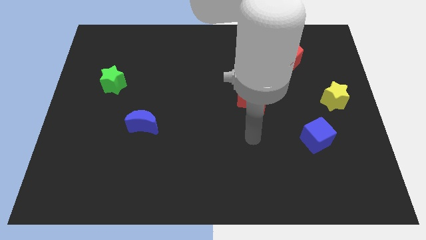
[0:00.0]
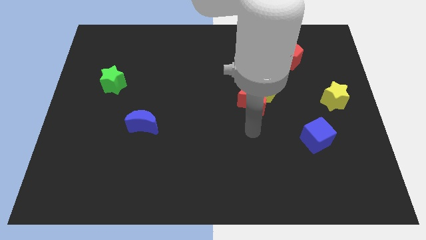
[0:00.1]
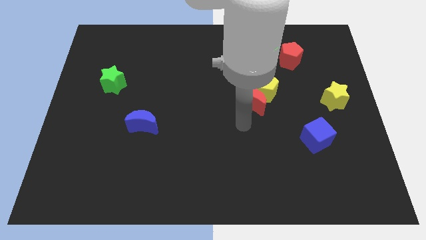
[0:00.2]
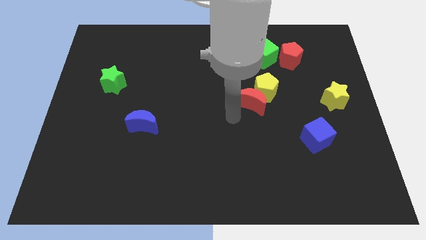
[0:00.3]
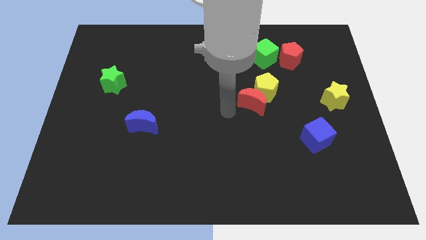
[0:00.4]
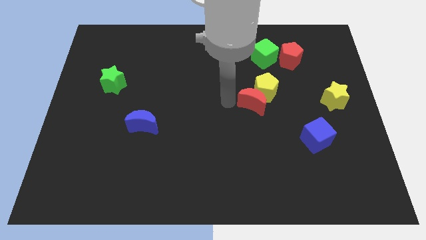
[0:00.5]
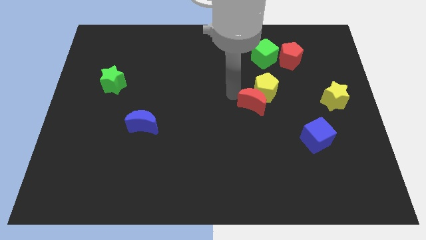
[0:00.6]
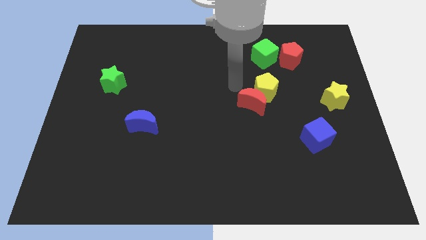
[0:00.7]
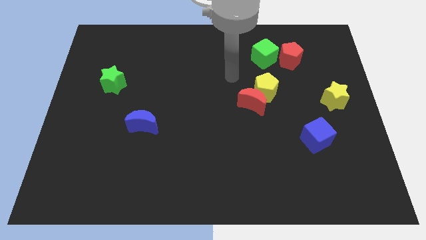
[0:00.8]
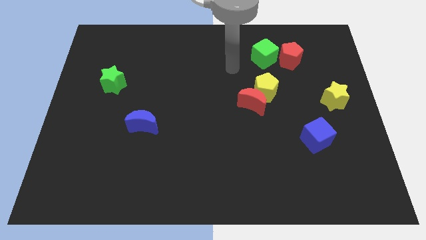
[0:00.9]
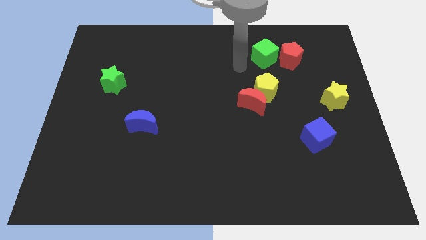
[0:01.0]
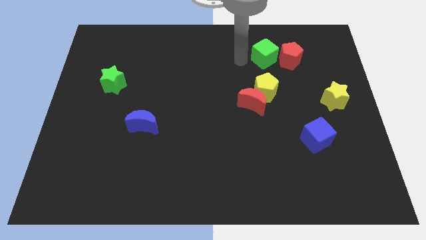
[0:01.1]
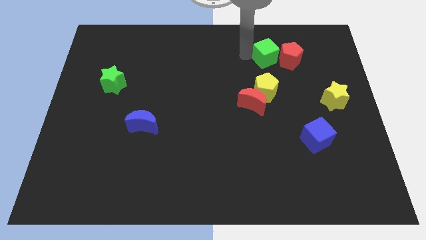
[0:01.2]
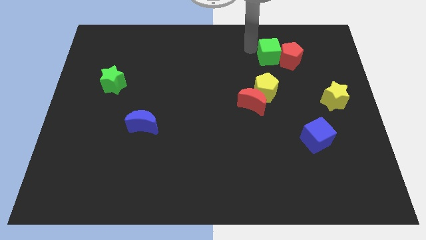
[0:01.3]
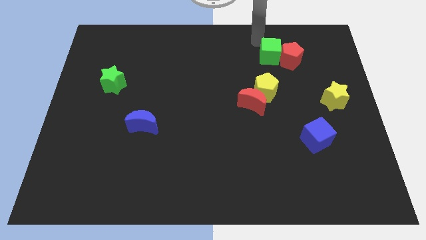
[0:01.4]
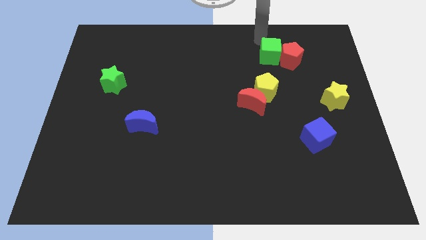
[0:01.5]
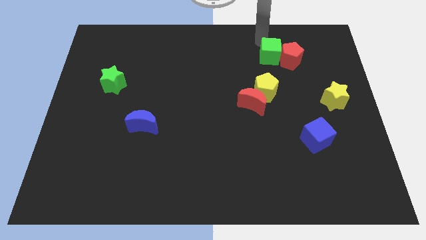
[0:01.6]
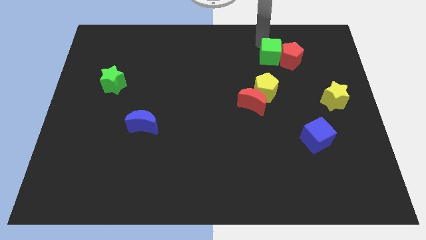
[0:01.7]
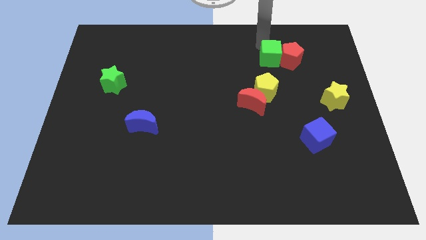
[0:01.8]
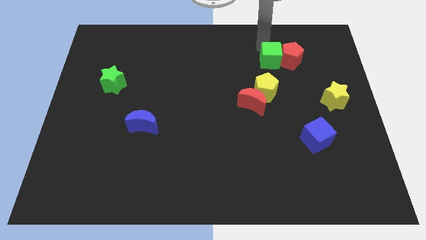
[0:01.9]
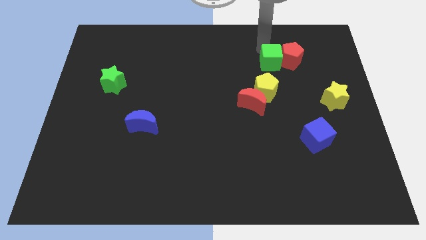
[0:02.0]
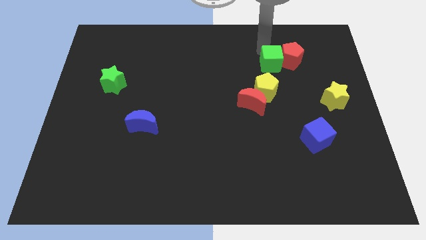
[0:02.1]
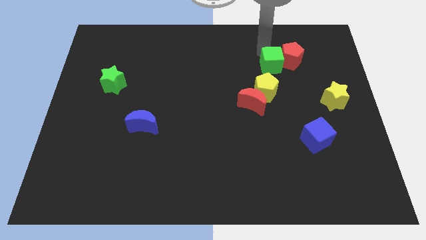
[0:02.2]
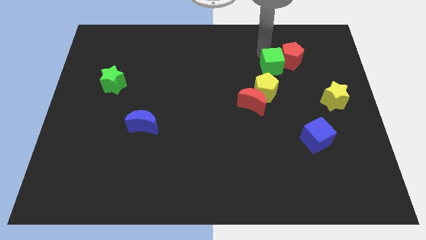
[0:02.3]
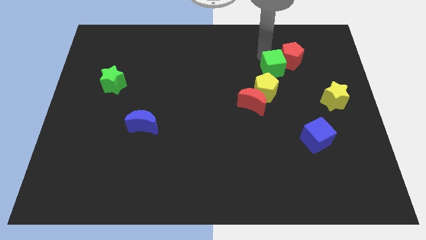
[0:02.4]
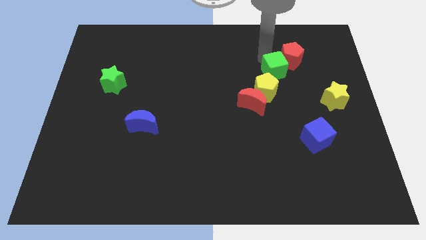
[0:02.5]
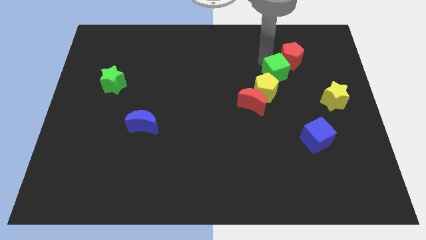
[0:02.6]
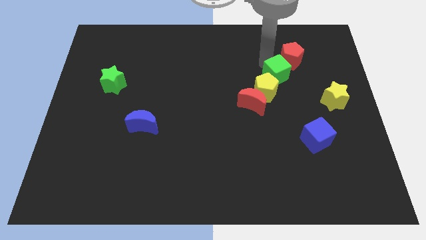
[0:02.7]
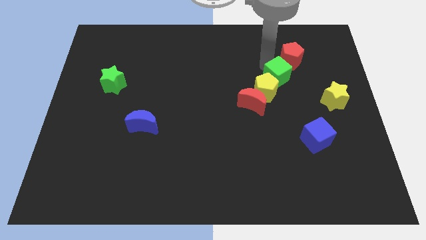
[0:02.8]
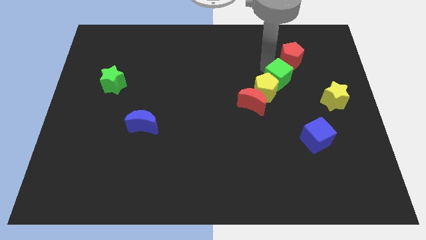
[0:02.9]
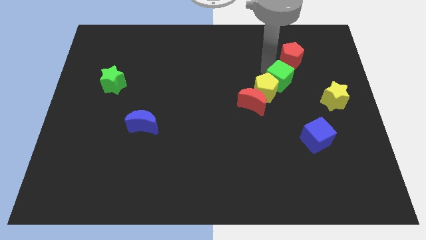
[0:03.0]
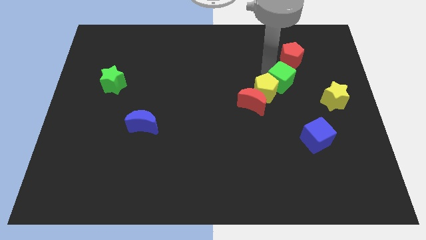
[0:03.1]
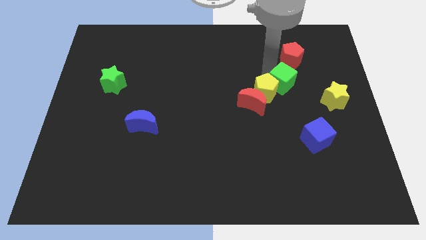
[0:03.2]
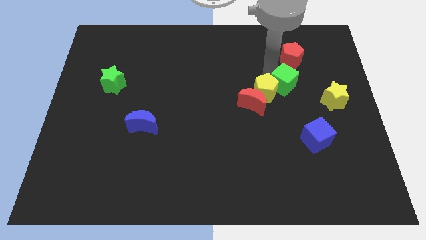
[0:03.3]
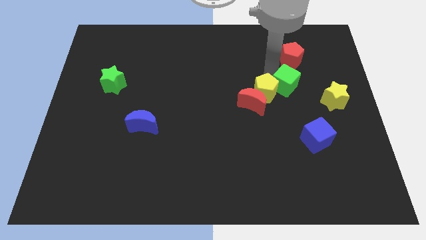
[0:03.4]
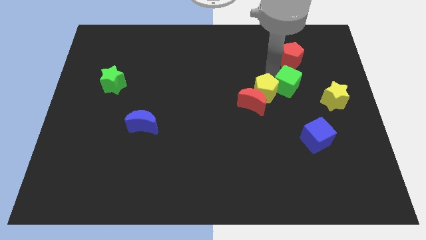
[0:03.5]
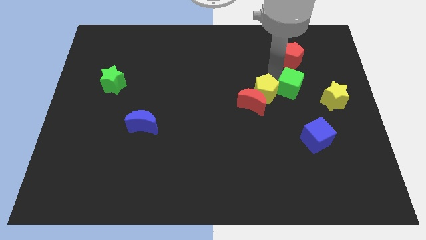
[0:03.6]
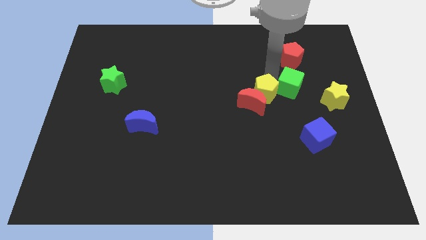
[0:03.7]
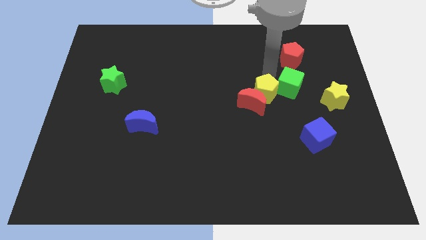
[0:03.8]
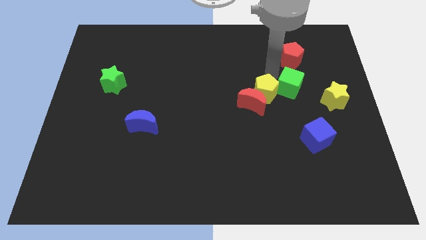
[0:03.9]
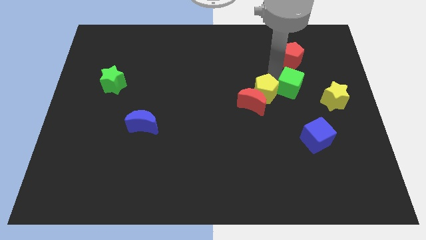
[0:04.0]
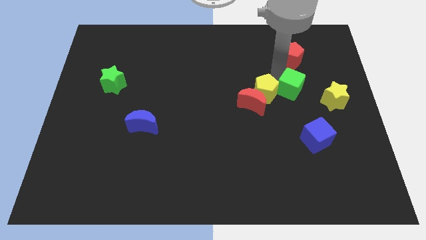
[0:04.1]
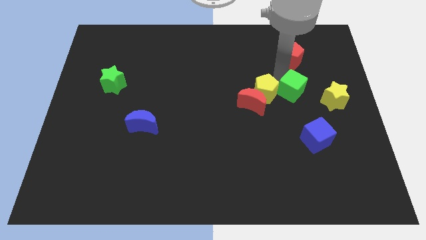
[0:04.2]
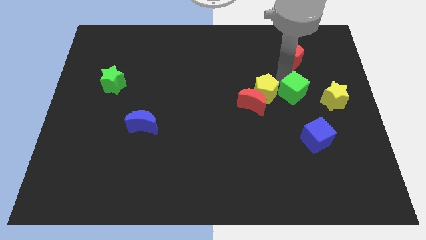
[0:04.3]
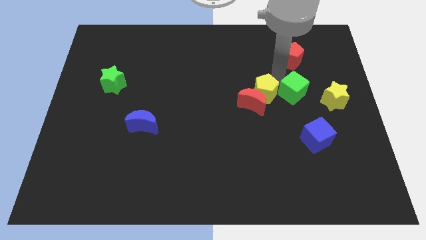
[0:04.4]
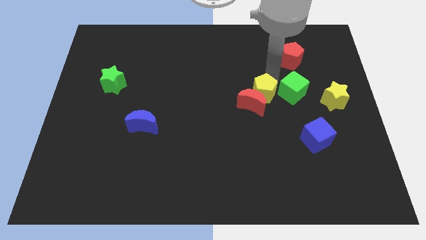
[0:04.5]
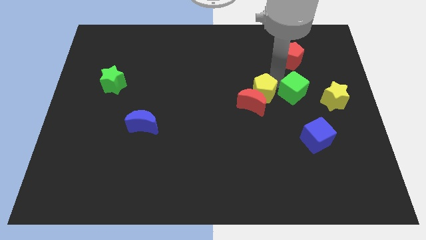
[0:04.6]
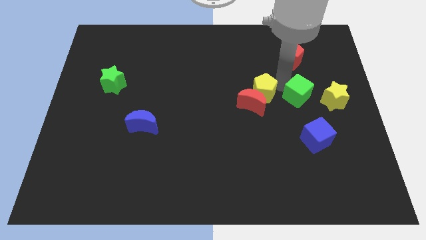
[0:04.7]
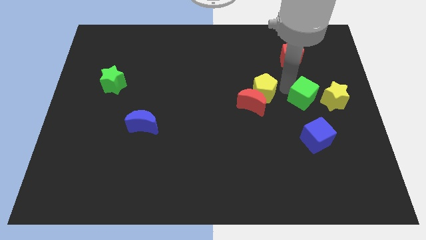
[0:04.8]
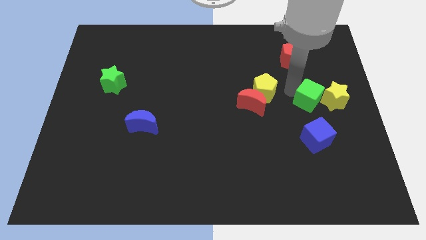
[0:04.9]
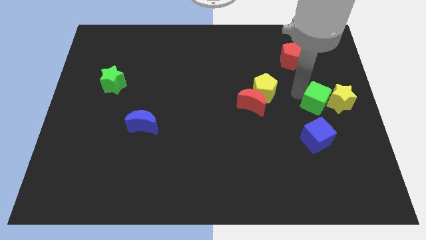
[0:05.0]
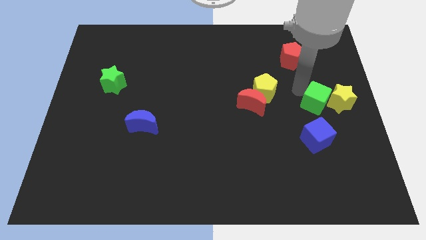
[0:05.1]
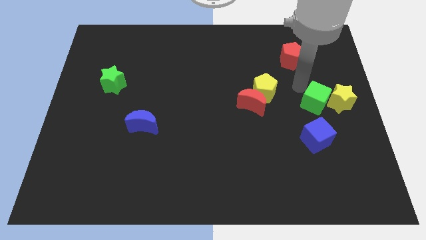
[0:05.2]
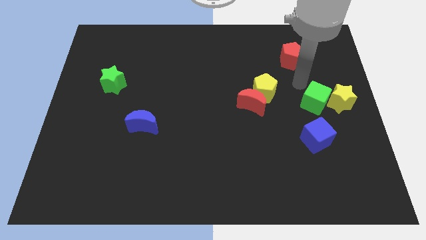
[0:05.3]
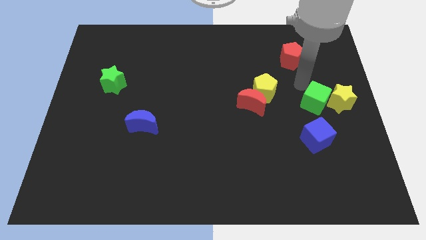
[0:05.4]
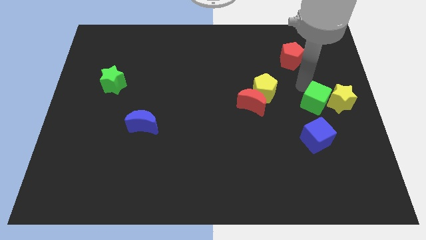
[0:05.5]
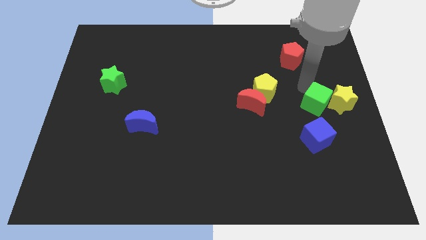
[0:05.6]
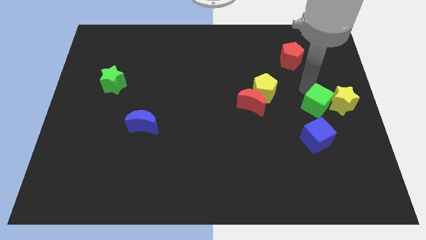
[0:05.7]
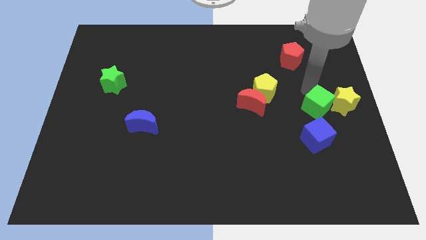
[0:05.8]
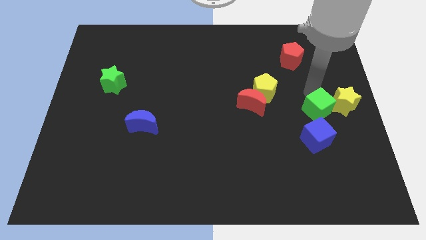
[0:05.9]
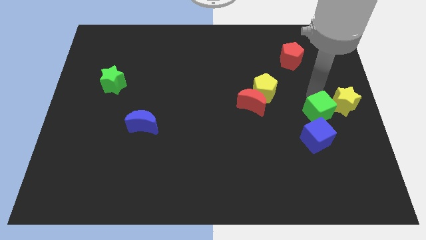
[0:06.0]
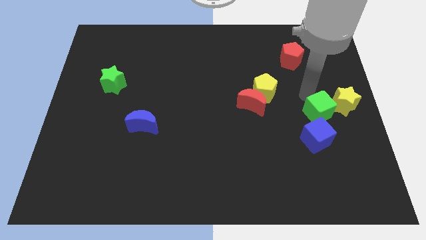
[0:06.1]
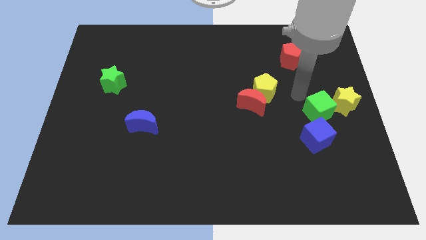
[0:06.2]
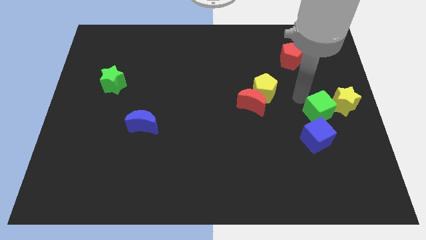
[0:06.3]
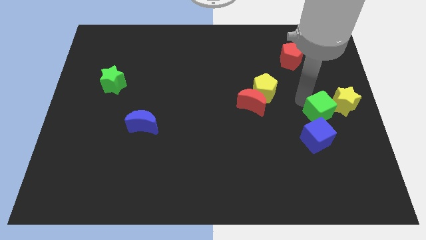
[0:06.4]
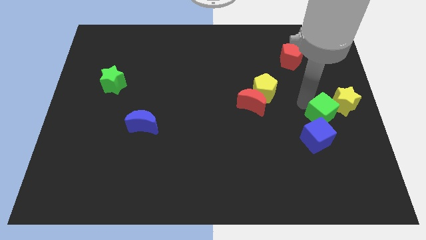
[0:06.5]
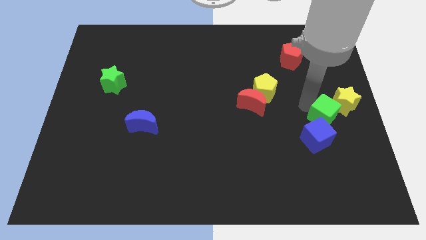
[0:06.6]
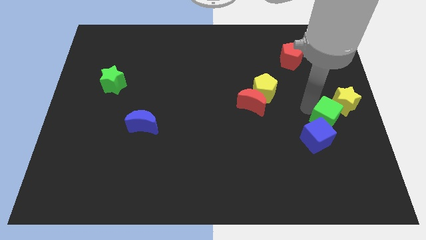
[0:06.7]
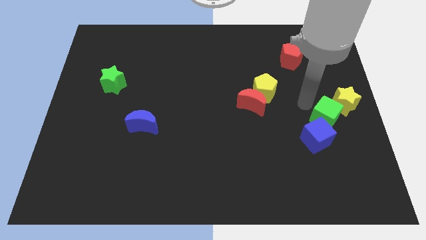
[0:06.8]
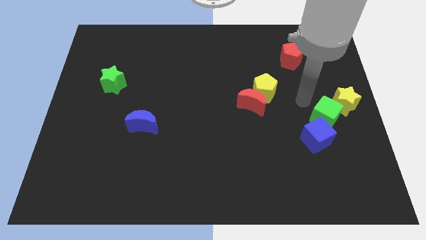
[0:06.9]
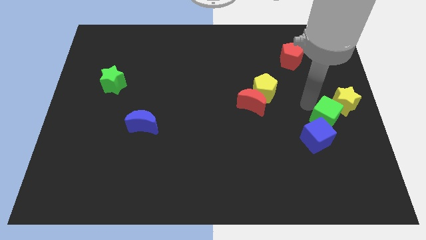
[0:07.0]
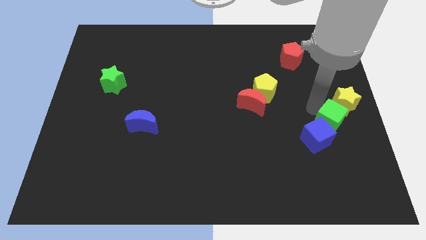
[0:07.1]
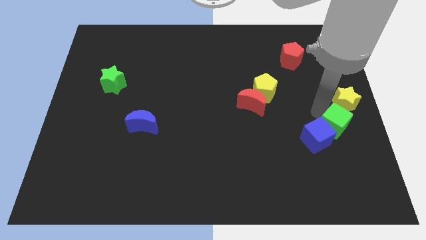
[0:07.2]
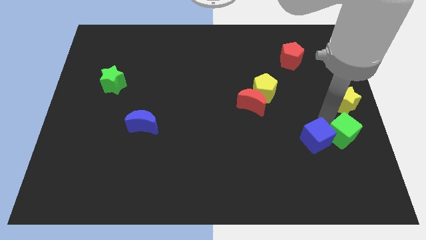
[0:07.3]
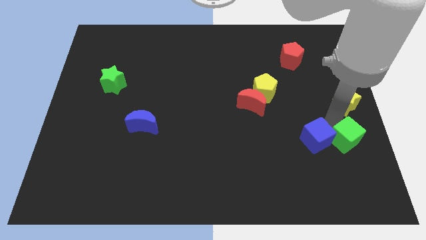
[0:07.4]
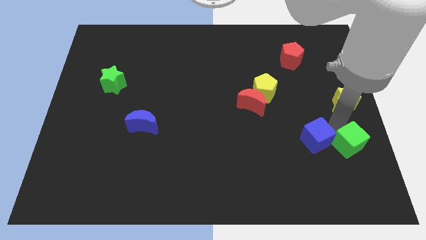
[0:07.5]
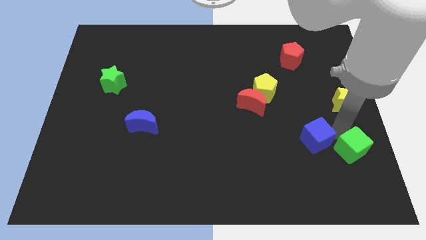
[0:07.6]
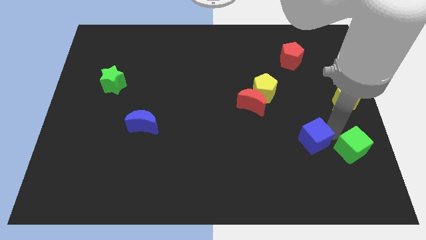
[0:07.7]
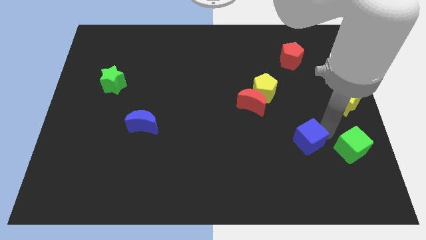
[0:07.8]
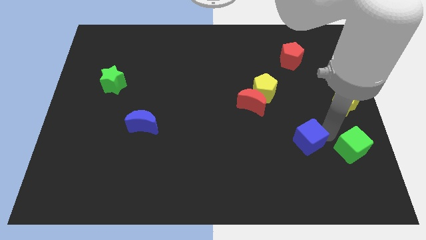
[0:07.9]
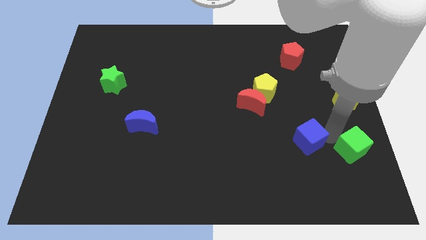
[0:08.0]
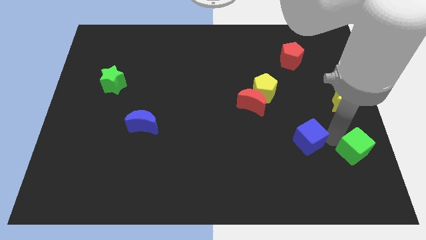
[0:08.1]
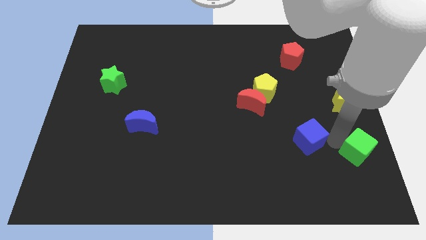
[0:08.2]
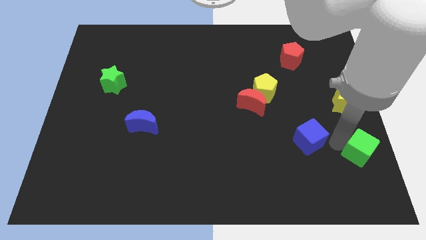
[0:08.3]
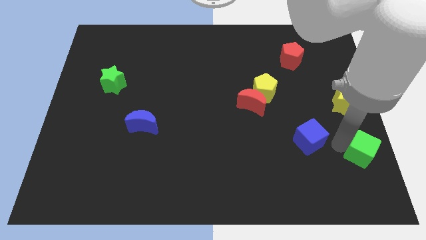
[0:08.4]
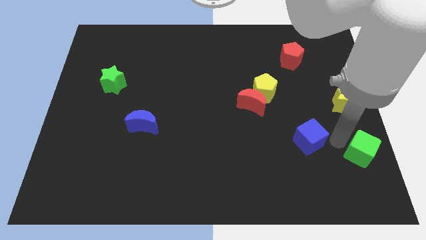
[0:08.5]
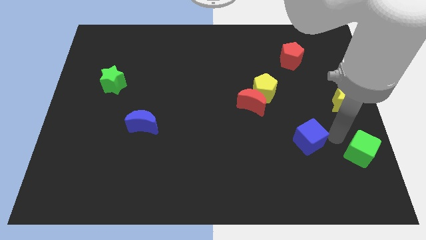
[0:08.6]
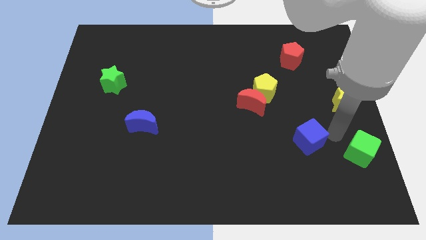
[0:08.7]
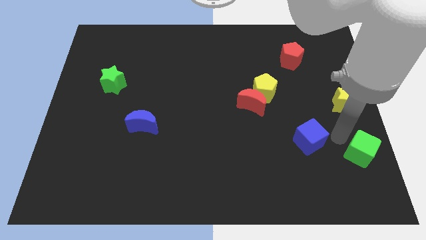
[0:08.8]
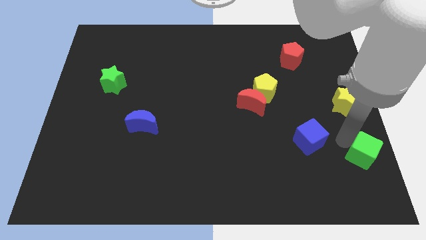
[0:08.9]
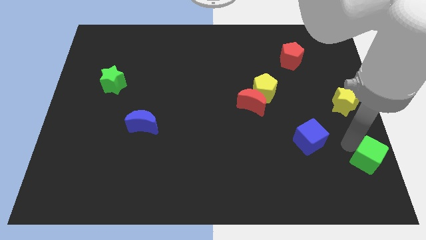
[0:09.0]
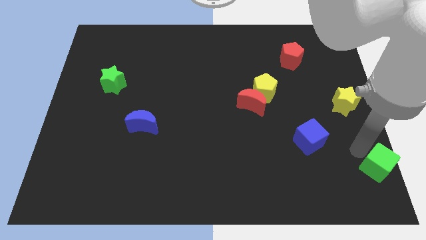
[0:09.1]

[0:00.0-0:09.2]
push the green cube to the bottom right
